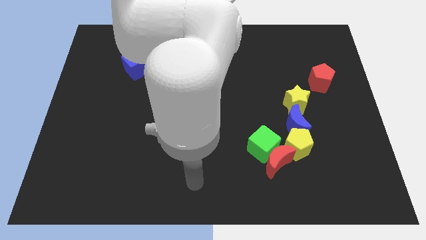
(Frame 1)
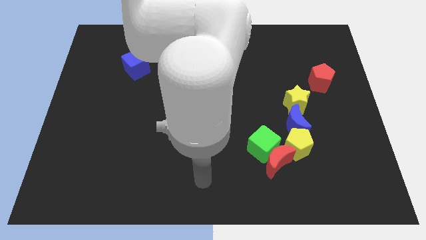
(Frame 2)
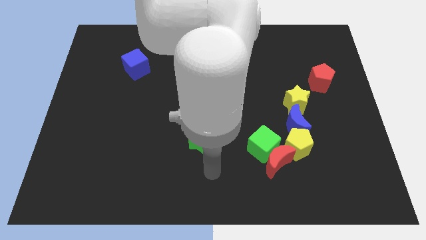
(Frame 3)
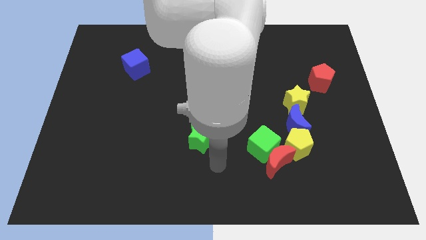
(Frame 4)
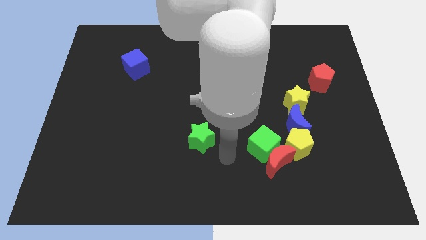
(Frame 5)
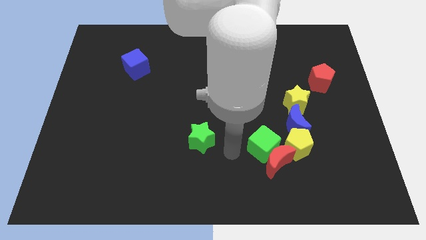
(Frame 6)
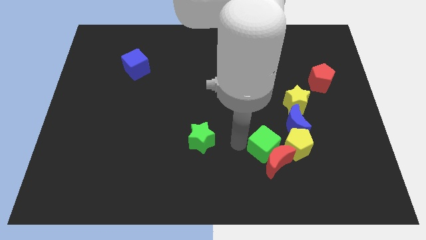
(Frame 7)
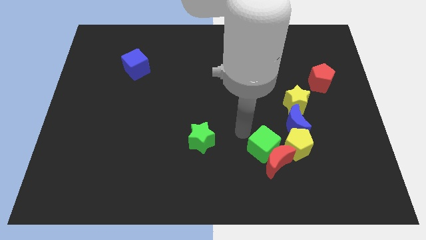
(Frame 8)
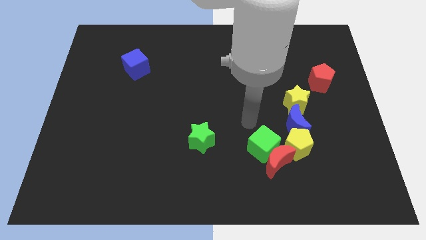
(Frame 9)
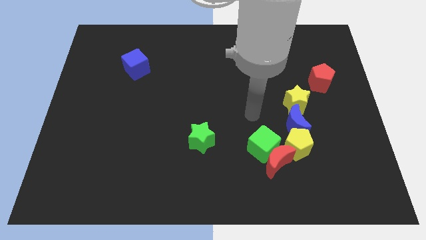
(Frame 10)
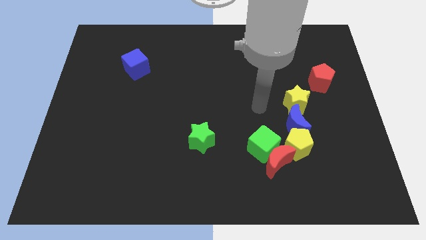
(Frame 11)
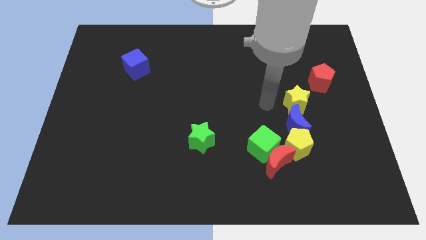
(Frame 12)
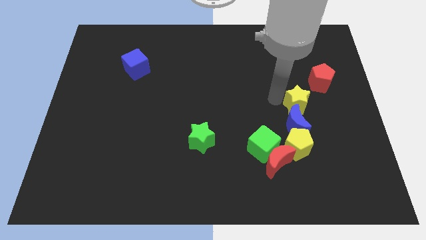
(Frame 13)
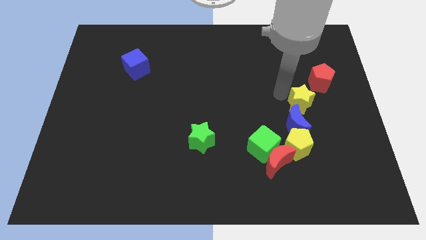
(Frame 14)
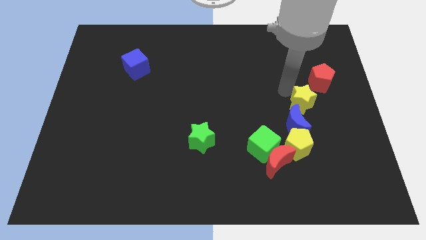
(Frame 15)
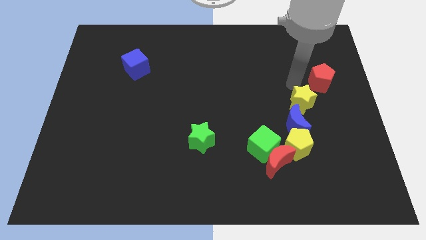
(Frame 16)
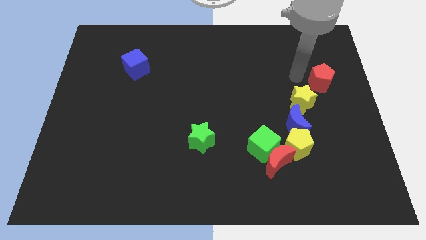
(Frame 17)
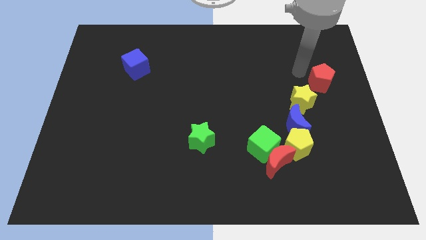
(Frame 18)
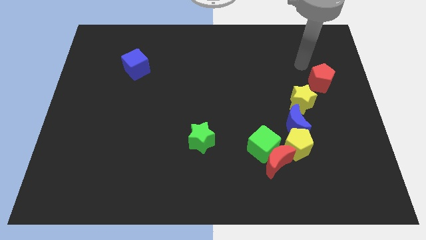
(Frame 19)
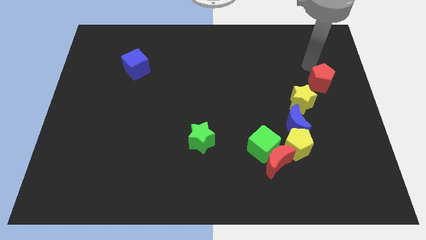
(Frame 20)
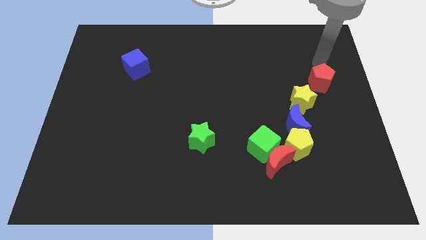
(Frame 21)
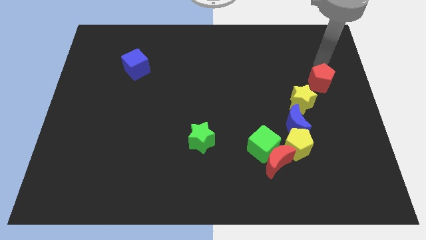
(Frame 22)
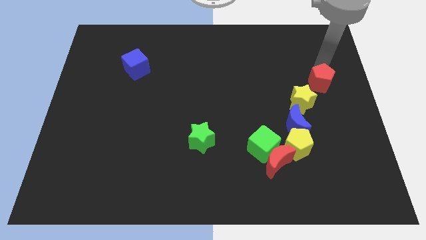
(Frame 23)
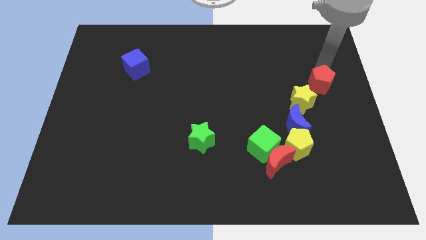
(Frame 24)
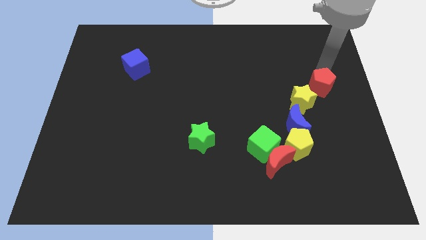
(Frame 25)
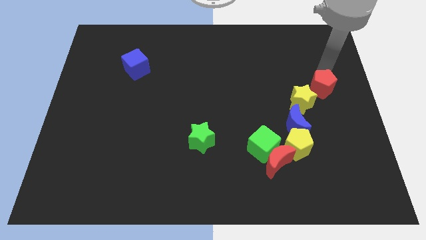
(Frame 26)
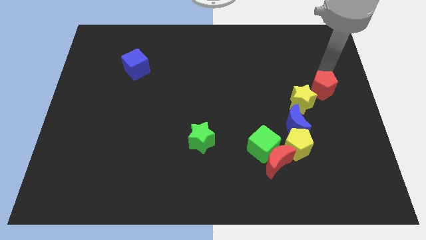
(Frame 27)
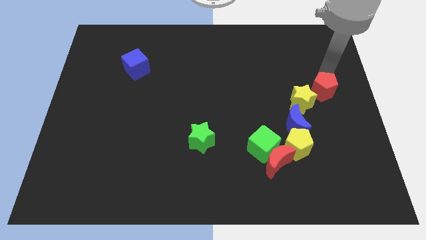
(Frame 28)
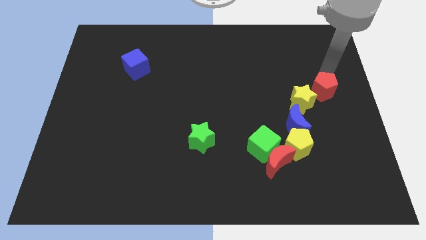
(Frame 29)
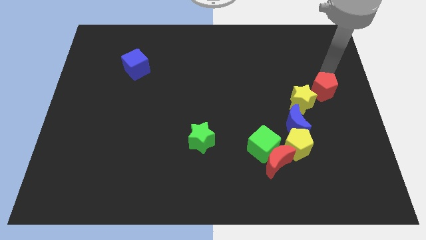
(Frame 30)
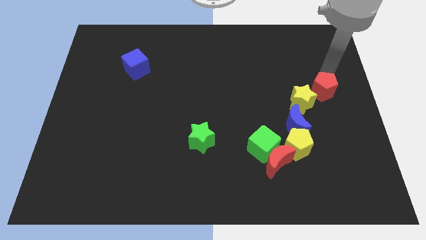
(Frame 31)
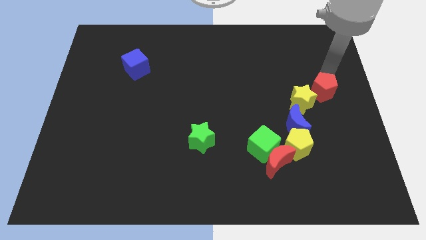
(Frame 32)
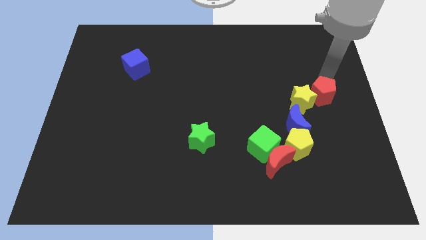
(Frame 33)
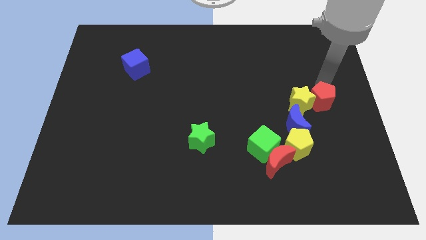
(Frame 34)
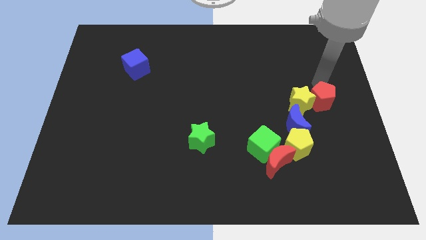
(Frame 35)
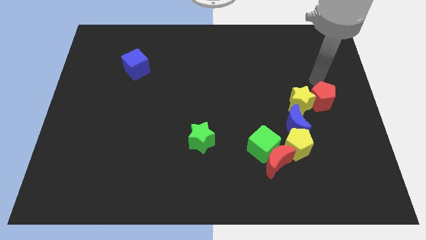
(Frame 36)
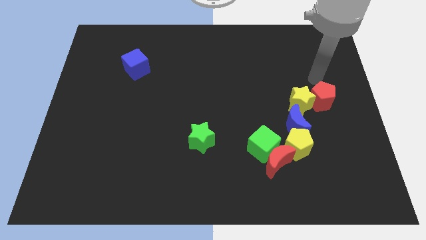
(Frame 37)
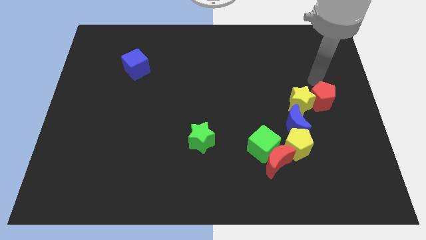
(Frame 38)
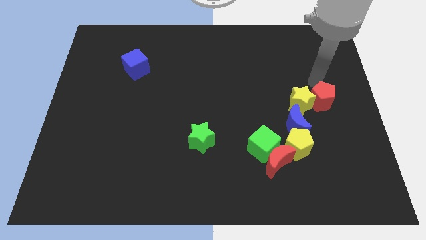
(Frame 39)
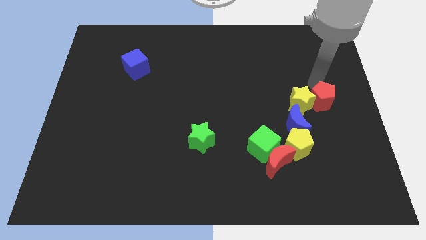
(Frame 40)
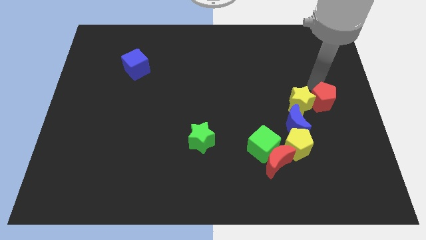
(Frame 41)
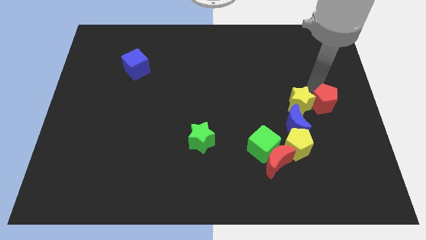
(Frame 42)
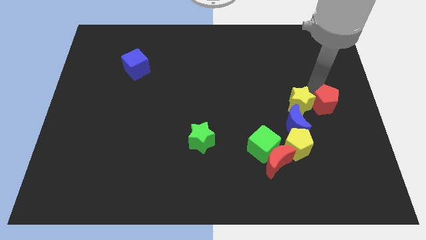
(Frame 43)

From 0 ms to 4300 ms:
move the red pentagon a bit down

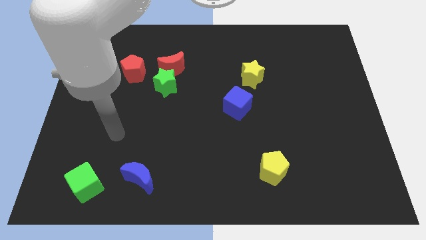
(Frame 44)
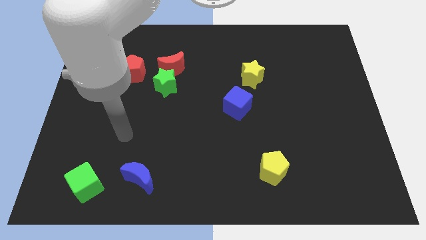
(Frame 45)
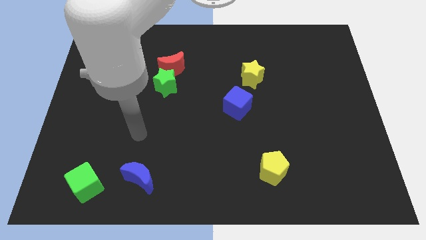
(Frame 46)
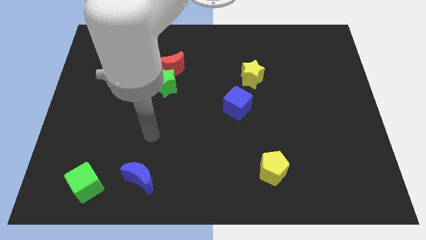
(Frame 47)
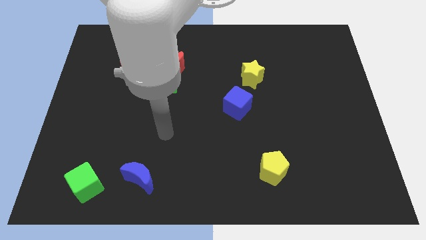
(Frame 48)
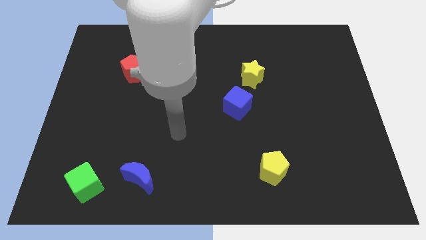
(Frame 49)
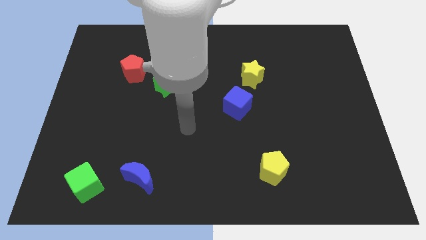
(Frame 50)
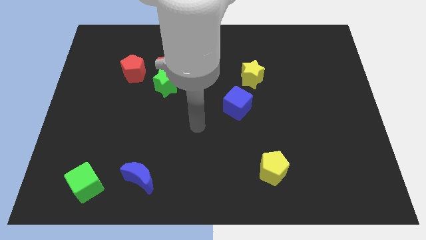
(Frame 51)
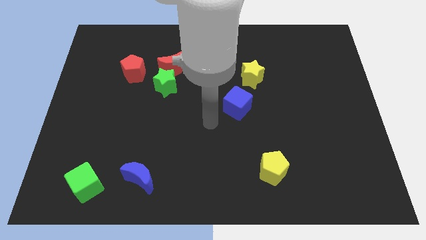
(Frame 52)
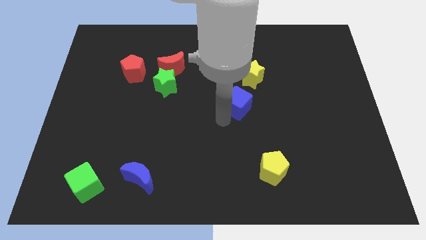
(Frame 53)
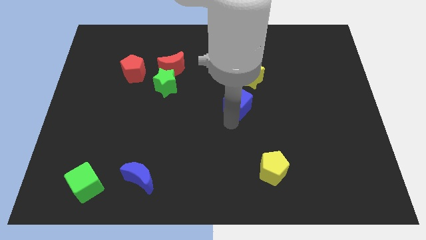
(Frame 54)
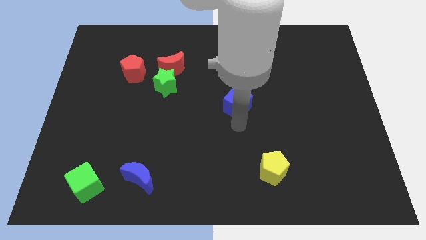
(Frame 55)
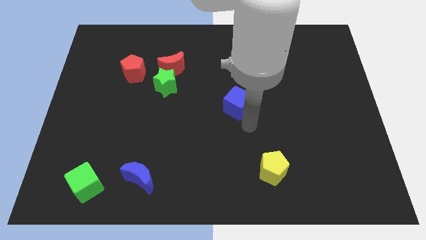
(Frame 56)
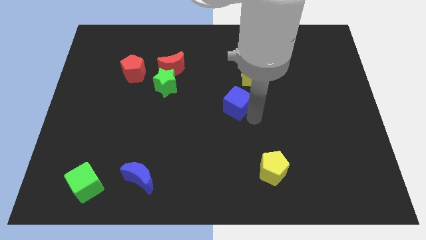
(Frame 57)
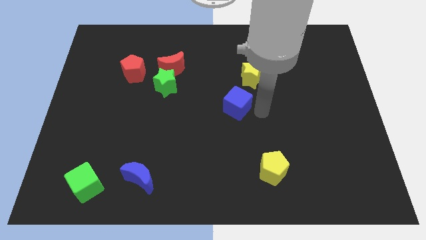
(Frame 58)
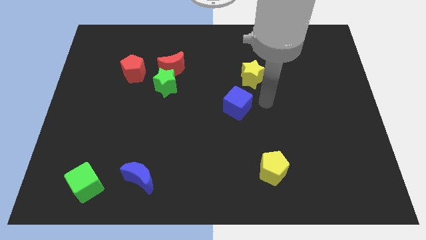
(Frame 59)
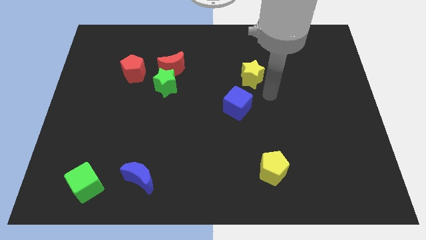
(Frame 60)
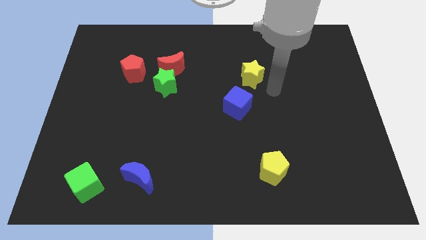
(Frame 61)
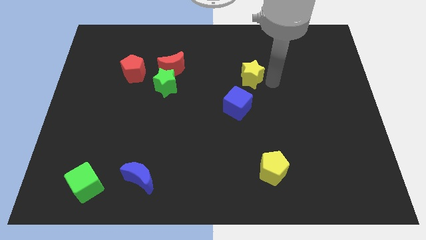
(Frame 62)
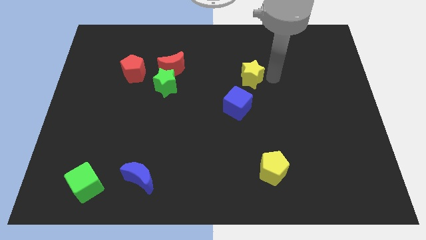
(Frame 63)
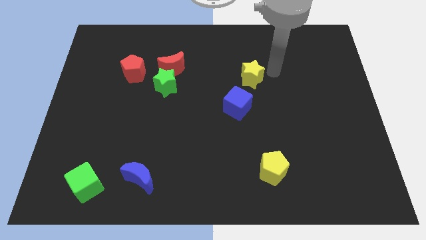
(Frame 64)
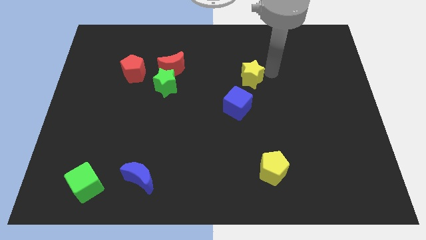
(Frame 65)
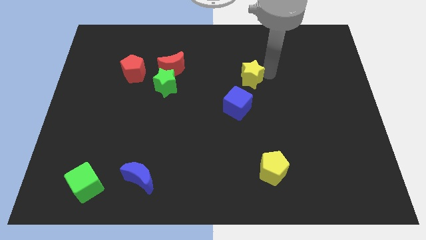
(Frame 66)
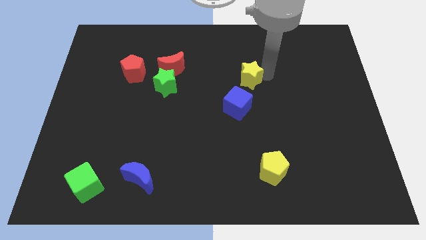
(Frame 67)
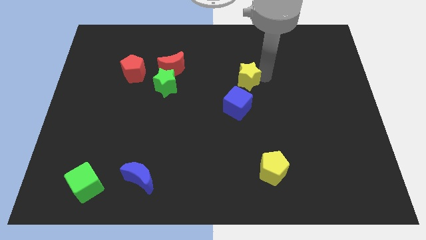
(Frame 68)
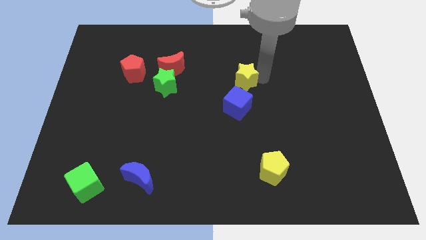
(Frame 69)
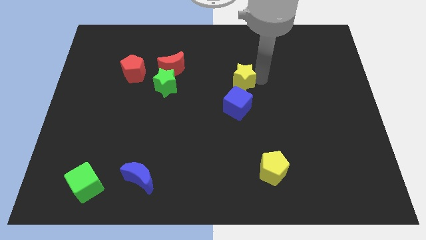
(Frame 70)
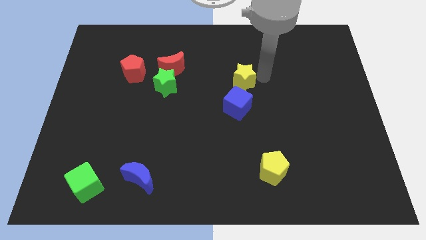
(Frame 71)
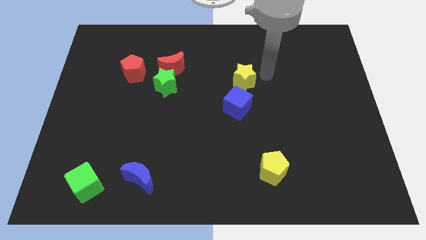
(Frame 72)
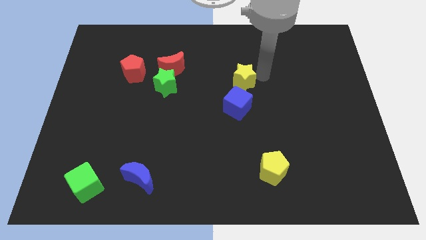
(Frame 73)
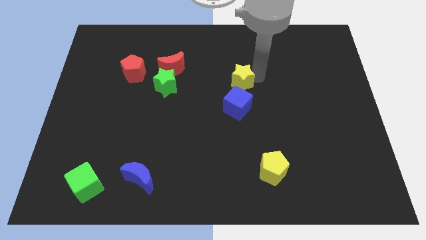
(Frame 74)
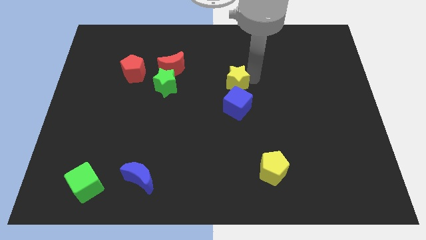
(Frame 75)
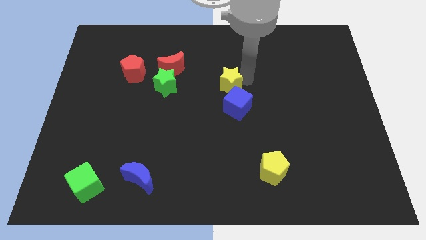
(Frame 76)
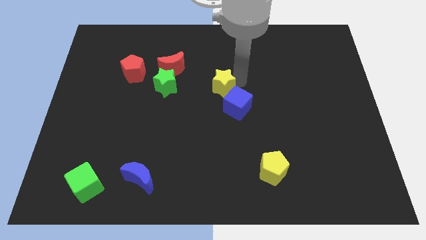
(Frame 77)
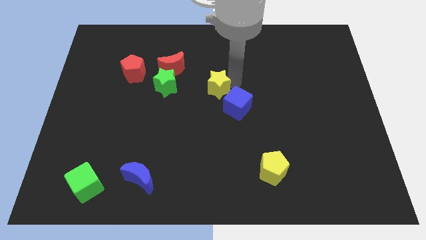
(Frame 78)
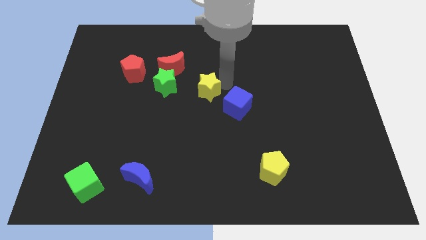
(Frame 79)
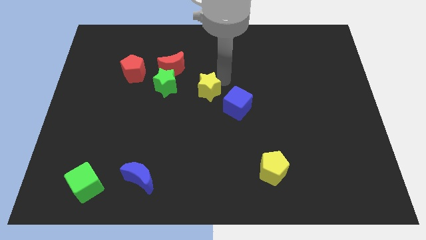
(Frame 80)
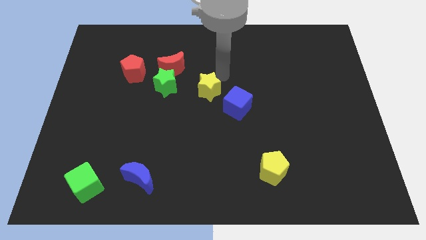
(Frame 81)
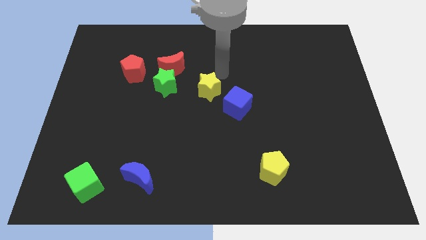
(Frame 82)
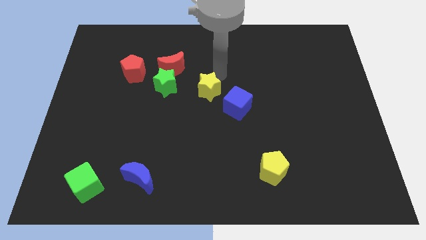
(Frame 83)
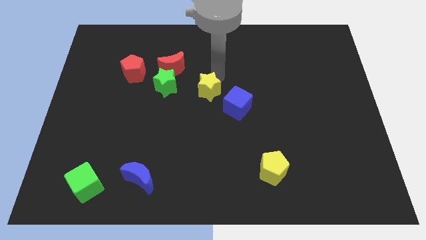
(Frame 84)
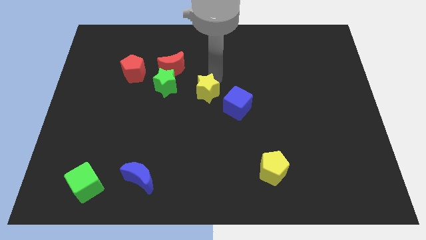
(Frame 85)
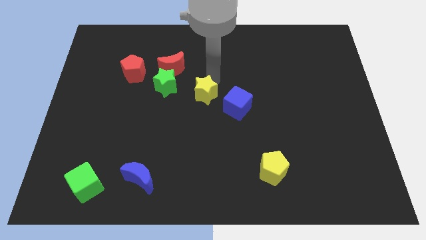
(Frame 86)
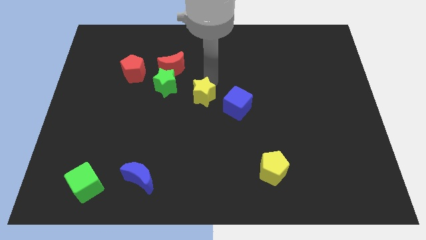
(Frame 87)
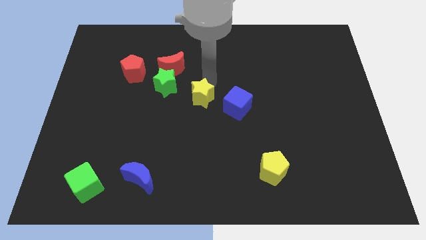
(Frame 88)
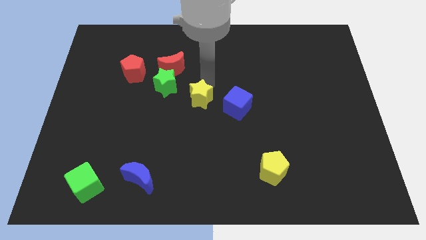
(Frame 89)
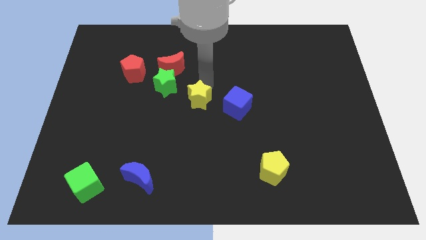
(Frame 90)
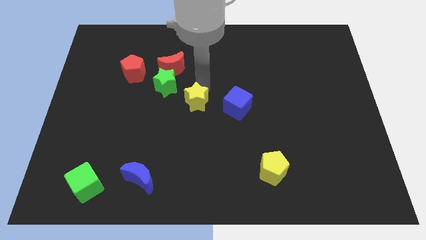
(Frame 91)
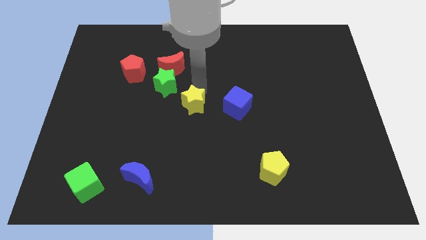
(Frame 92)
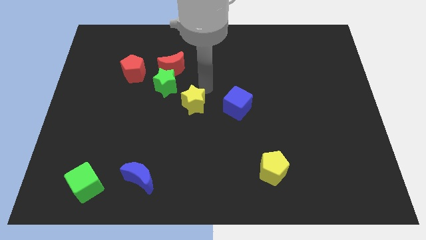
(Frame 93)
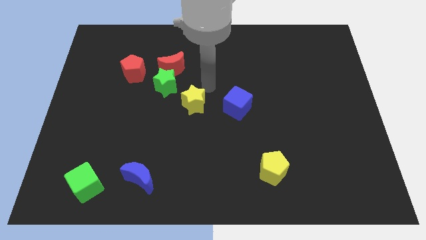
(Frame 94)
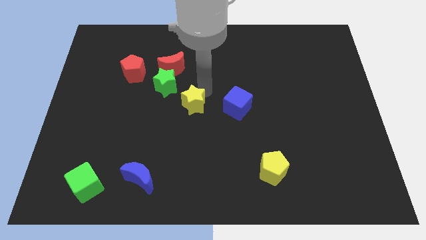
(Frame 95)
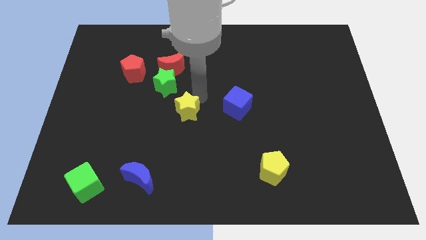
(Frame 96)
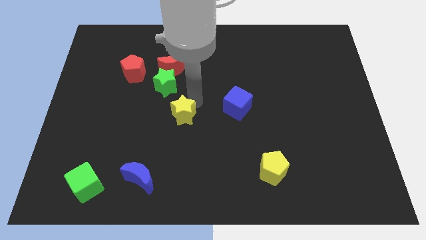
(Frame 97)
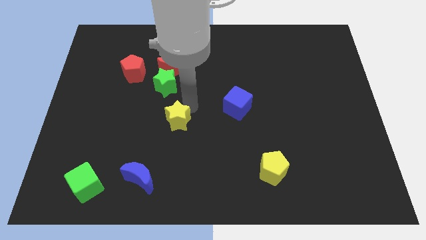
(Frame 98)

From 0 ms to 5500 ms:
push the yellow star diagonally downwards and to the left
